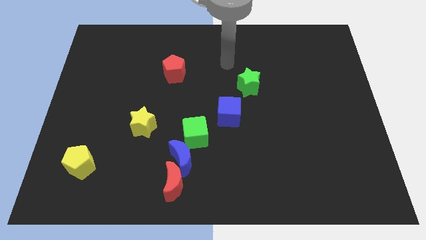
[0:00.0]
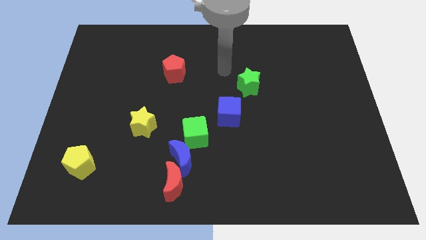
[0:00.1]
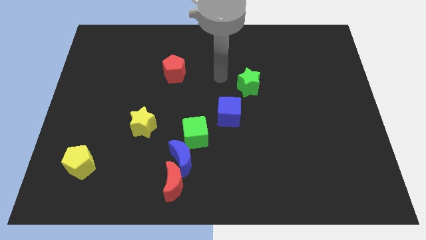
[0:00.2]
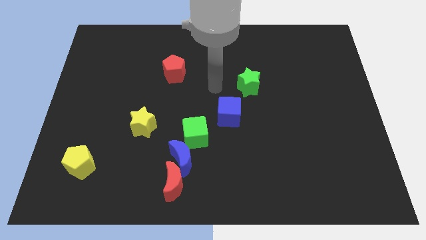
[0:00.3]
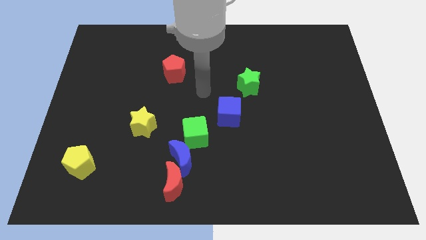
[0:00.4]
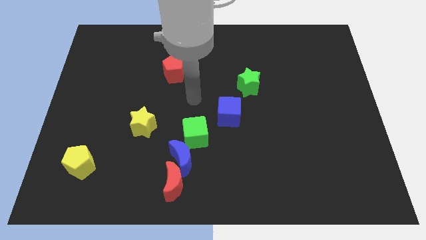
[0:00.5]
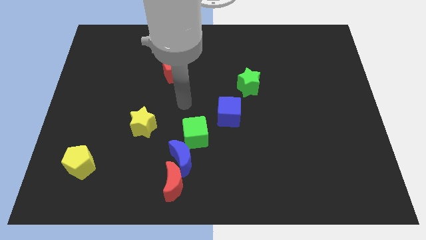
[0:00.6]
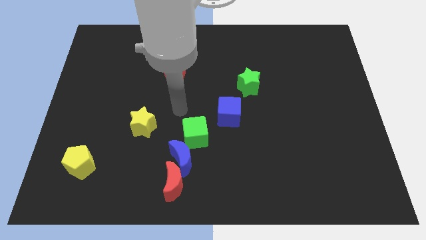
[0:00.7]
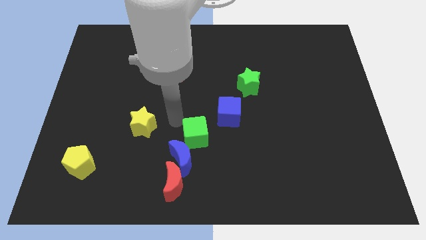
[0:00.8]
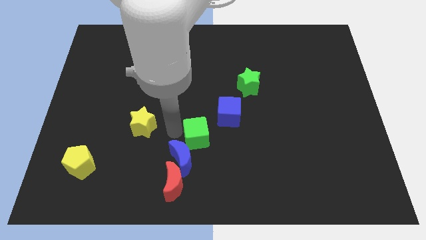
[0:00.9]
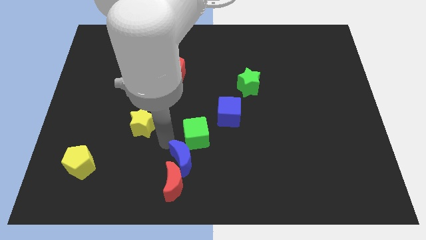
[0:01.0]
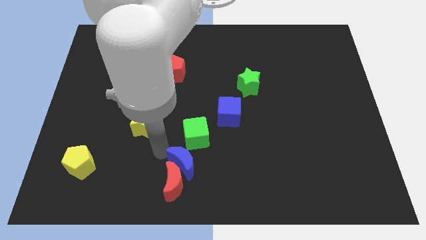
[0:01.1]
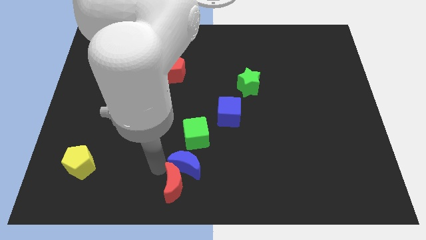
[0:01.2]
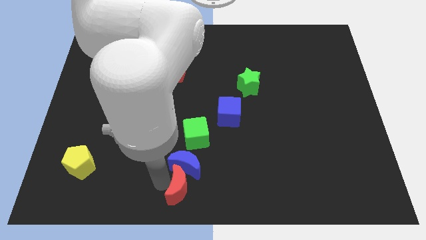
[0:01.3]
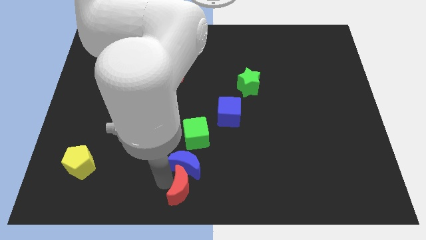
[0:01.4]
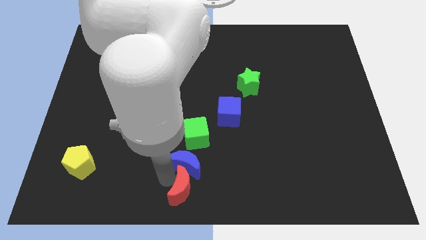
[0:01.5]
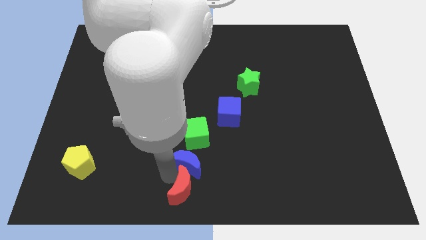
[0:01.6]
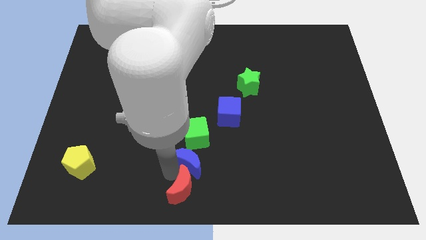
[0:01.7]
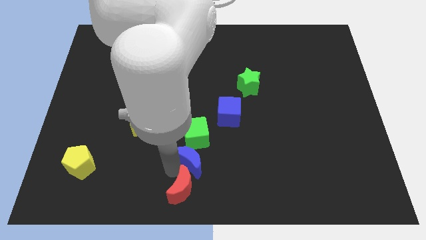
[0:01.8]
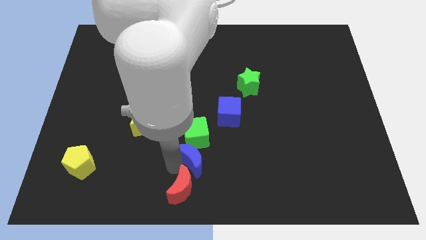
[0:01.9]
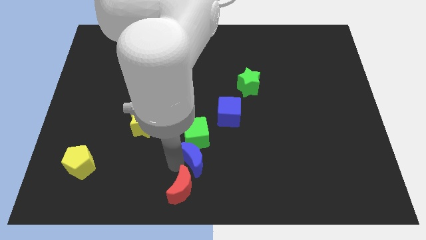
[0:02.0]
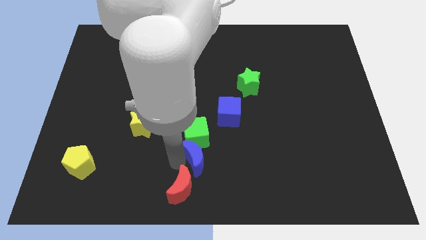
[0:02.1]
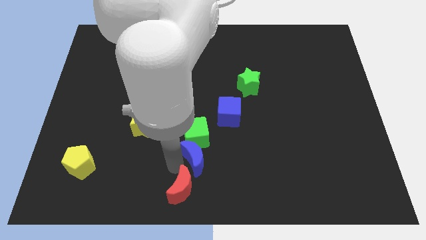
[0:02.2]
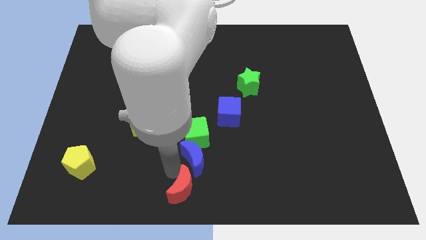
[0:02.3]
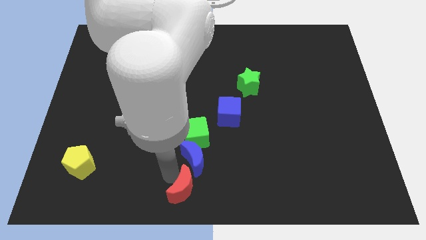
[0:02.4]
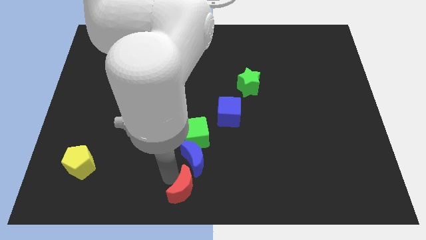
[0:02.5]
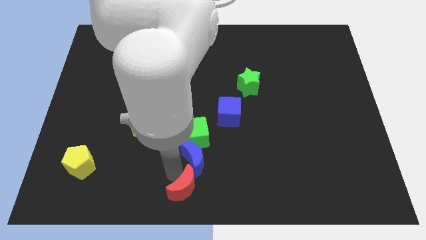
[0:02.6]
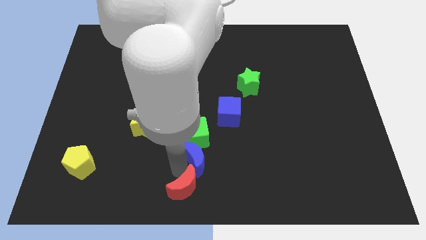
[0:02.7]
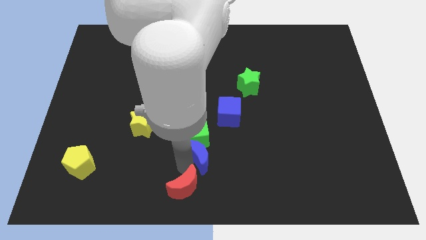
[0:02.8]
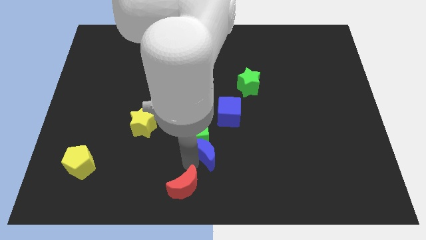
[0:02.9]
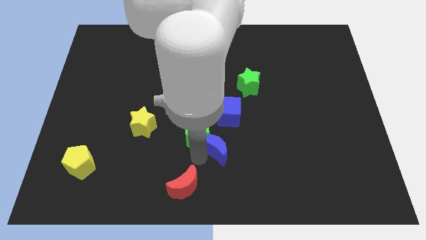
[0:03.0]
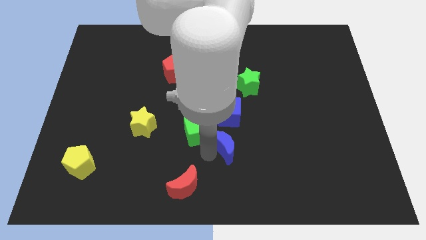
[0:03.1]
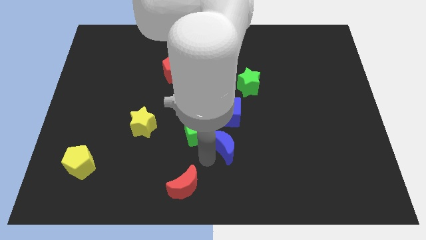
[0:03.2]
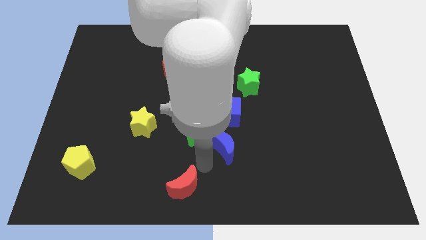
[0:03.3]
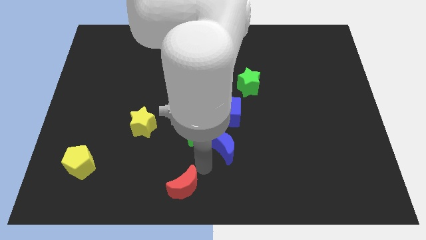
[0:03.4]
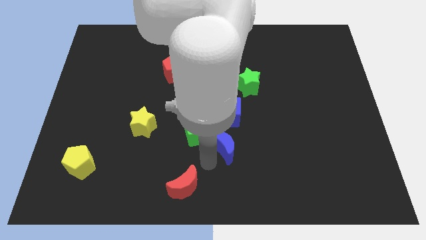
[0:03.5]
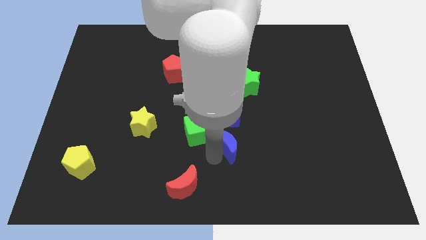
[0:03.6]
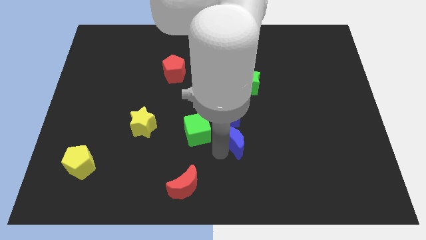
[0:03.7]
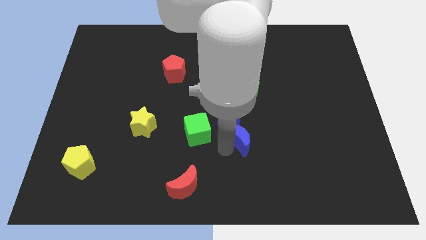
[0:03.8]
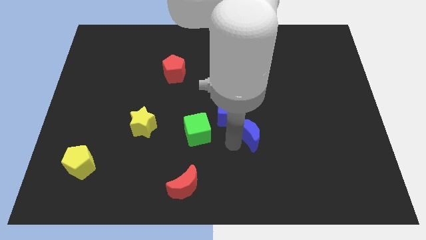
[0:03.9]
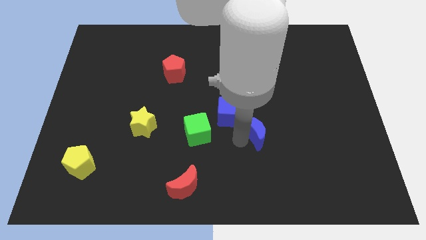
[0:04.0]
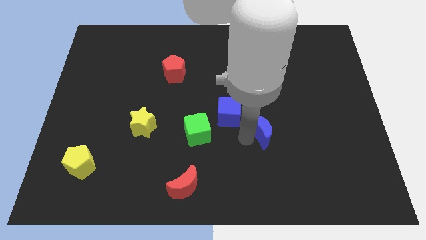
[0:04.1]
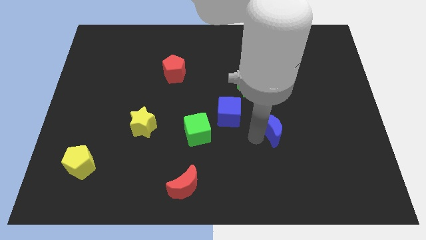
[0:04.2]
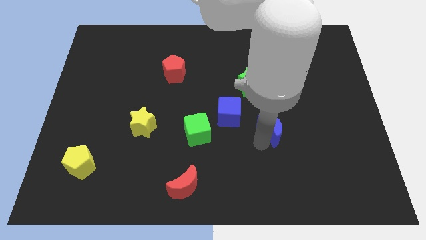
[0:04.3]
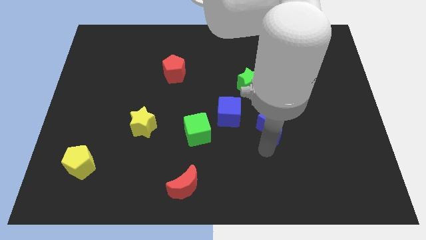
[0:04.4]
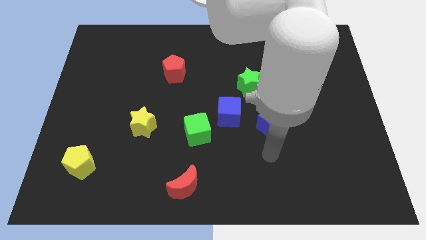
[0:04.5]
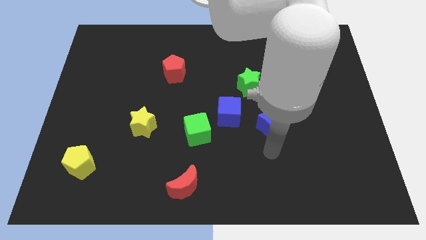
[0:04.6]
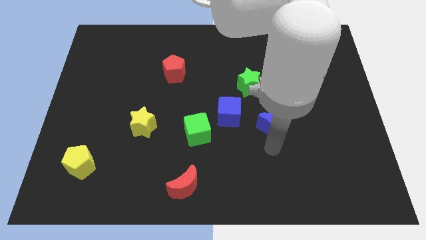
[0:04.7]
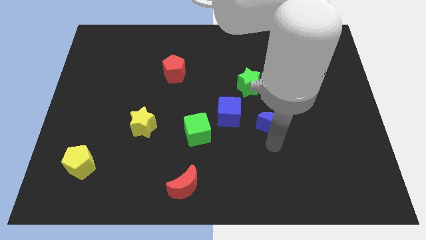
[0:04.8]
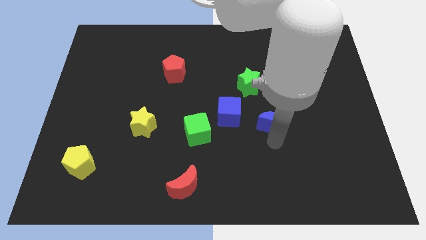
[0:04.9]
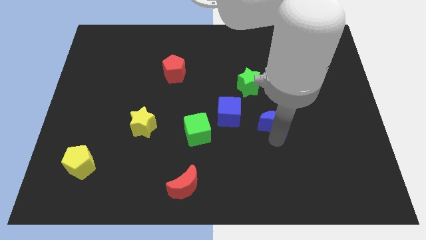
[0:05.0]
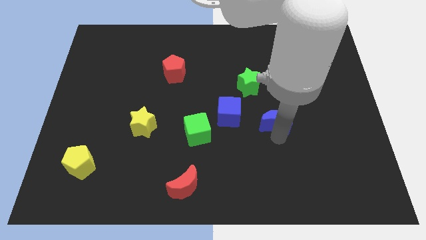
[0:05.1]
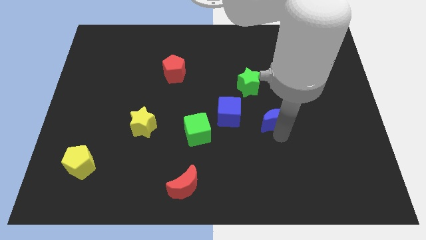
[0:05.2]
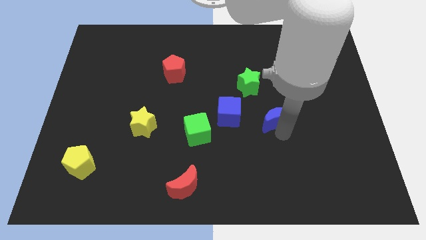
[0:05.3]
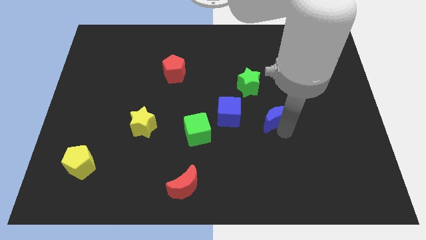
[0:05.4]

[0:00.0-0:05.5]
push the blue moon to the bottom right of the green star

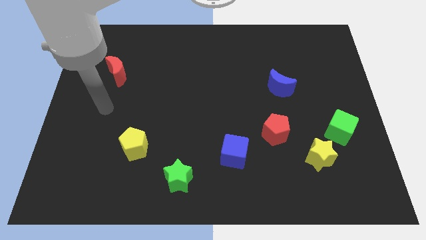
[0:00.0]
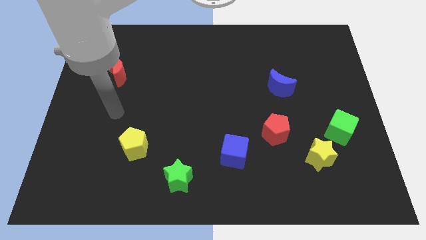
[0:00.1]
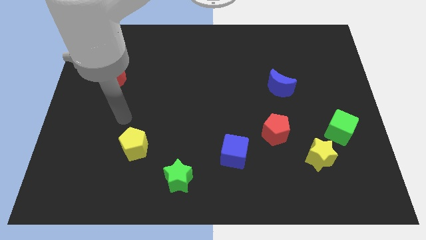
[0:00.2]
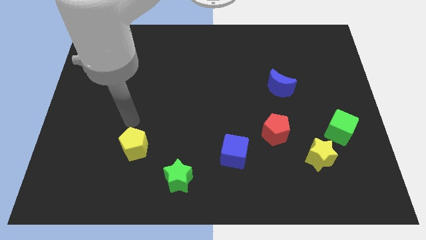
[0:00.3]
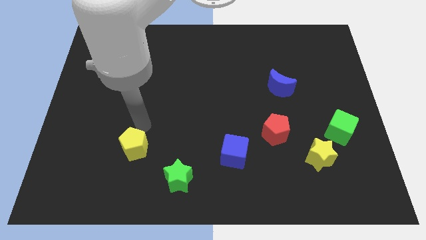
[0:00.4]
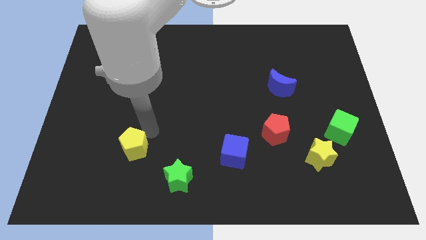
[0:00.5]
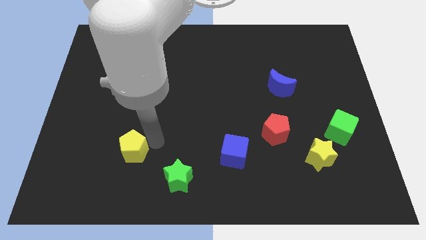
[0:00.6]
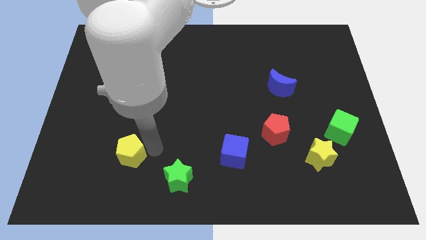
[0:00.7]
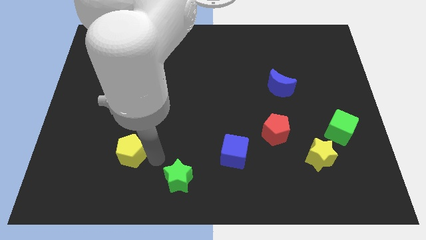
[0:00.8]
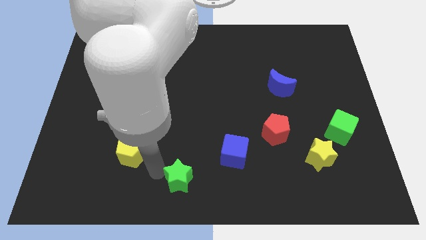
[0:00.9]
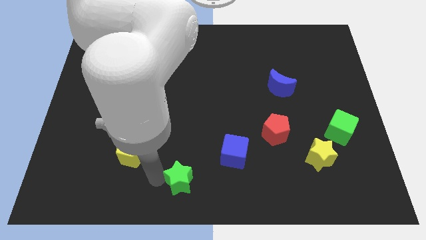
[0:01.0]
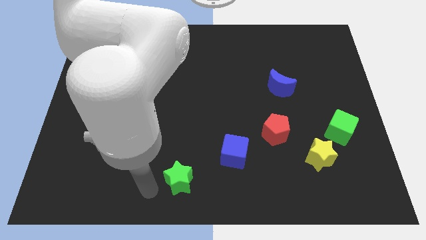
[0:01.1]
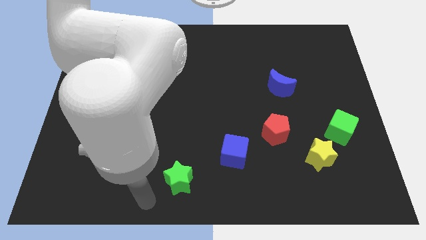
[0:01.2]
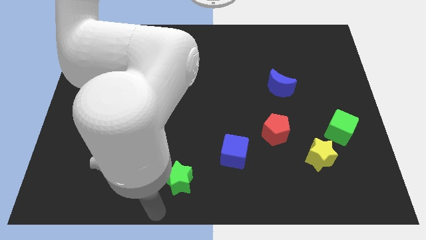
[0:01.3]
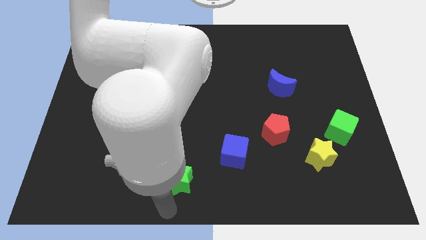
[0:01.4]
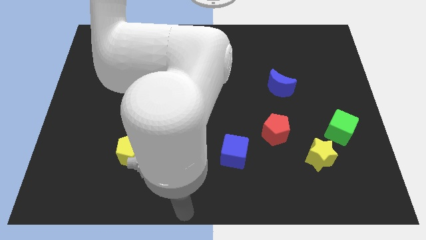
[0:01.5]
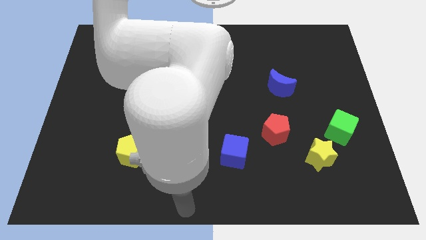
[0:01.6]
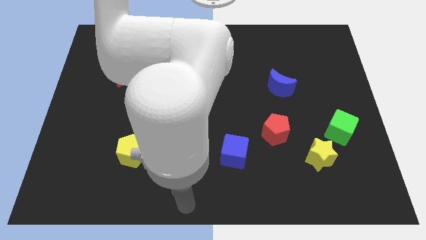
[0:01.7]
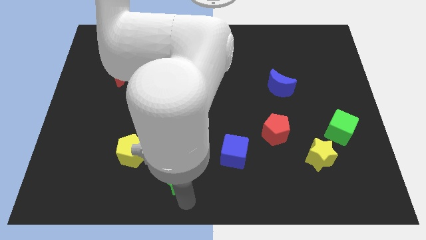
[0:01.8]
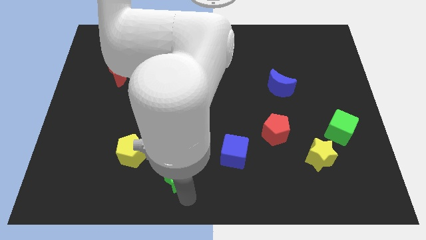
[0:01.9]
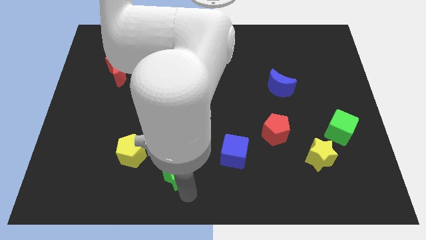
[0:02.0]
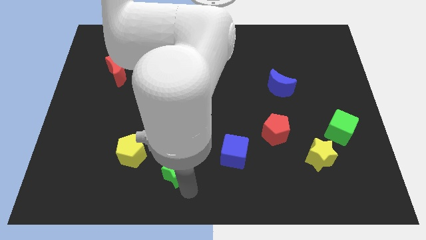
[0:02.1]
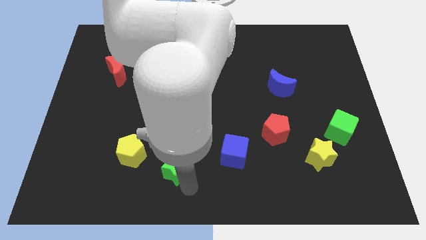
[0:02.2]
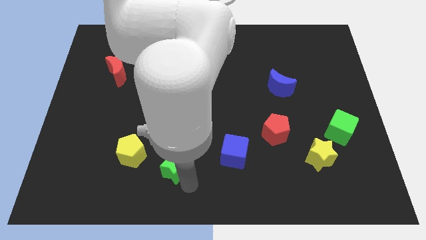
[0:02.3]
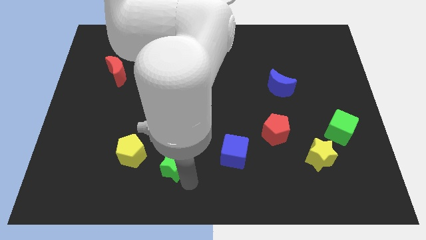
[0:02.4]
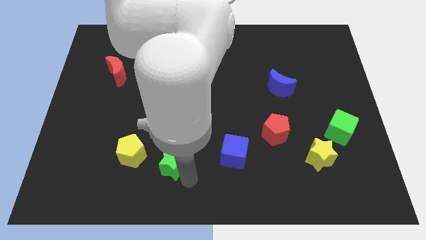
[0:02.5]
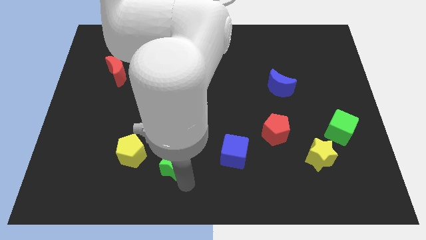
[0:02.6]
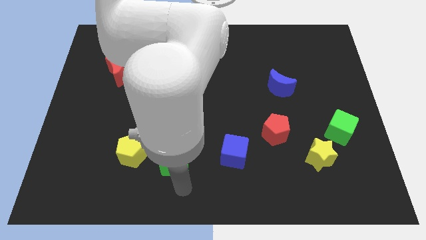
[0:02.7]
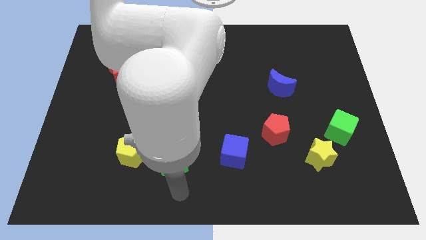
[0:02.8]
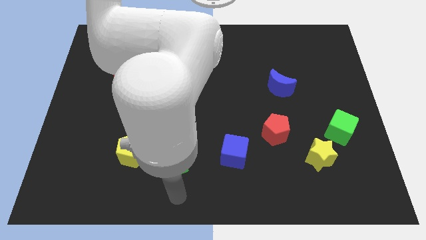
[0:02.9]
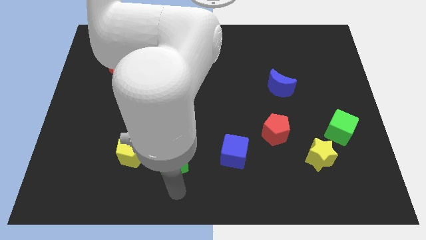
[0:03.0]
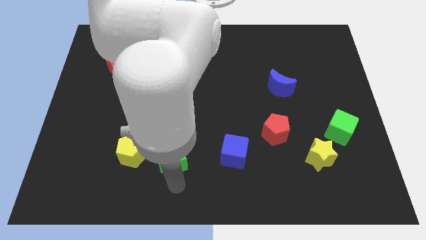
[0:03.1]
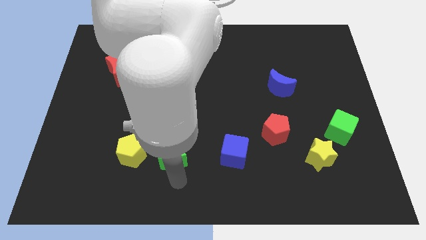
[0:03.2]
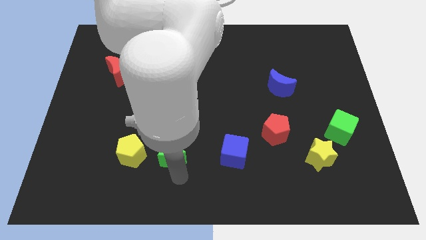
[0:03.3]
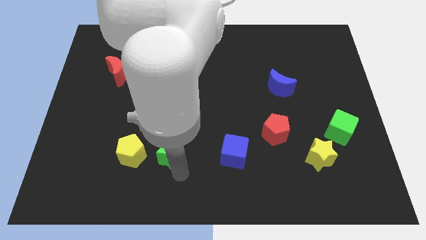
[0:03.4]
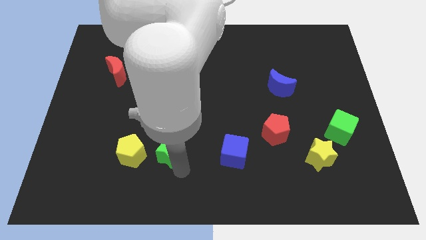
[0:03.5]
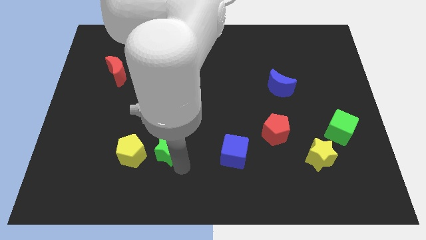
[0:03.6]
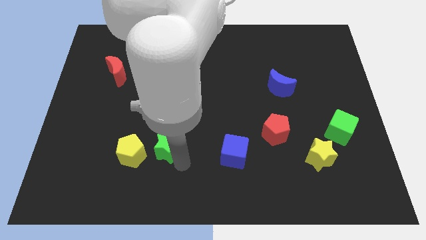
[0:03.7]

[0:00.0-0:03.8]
push the green star to the top right side of the yellow pentagon
